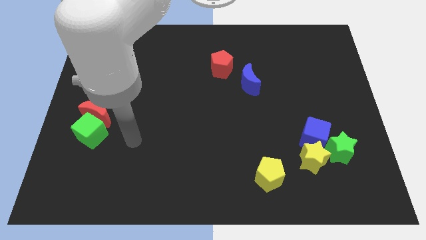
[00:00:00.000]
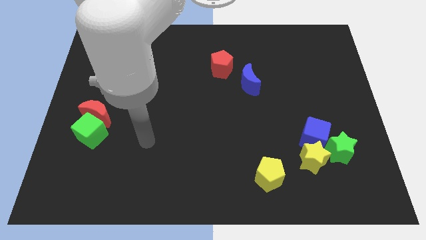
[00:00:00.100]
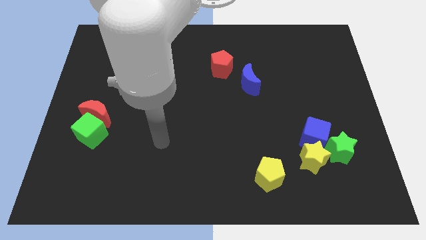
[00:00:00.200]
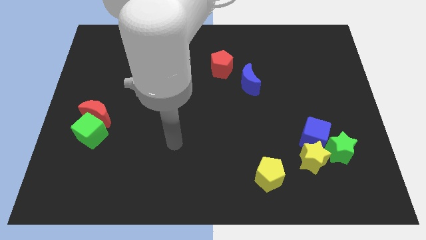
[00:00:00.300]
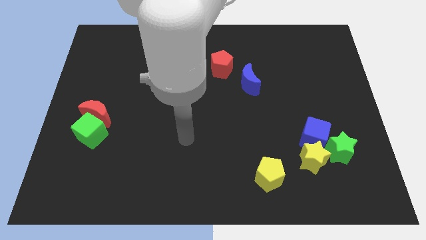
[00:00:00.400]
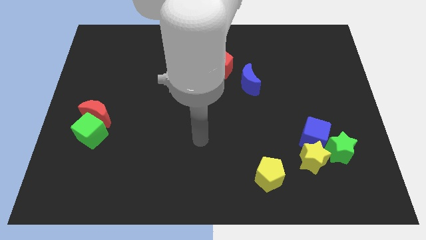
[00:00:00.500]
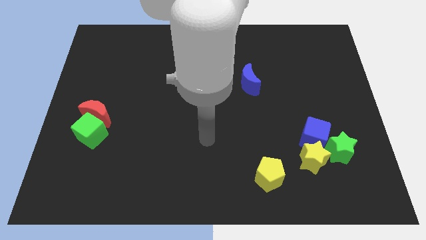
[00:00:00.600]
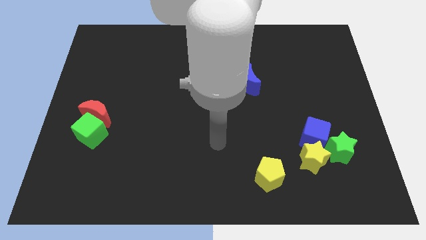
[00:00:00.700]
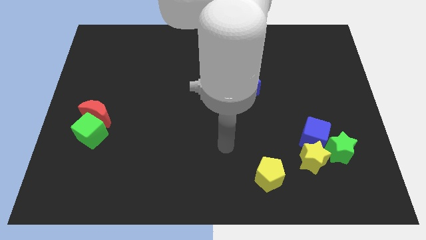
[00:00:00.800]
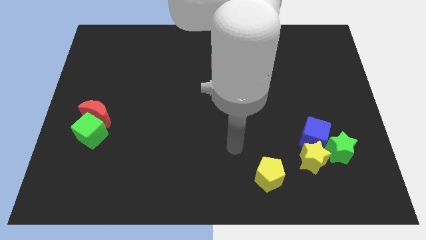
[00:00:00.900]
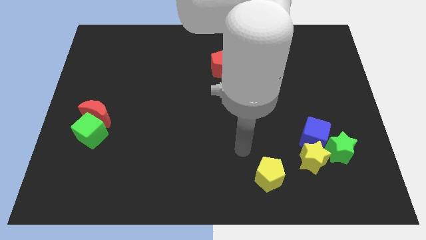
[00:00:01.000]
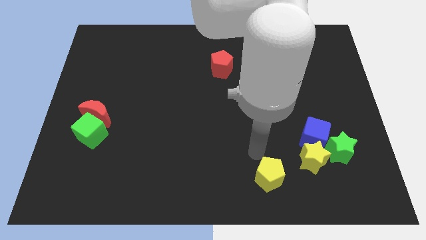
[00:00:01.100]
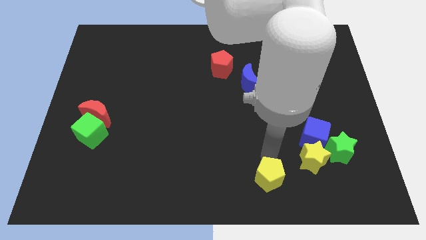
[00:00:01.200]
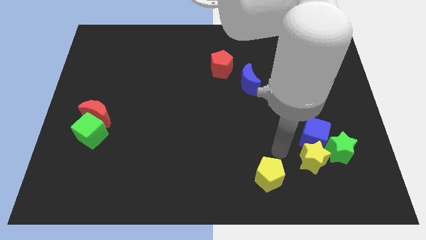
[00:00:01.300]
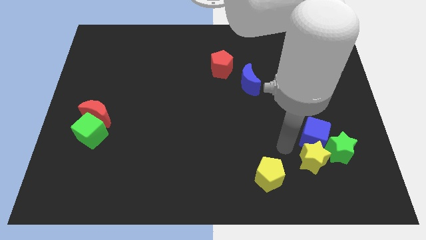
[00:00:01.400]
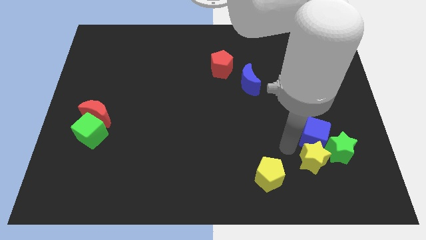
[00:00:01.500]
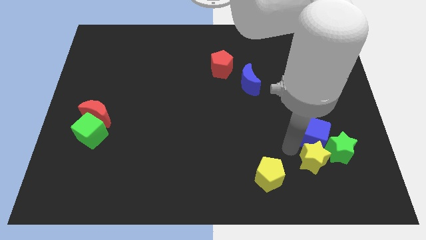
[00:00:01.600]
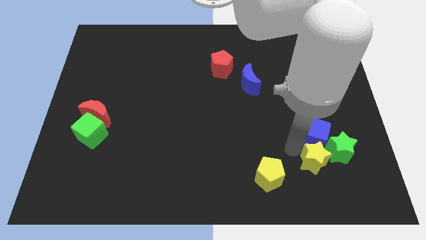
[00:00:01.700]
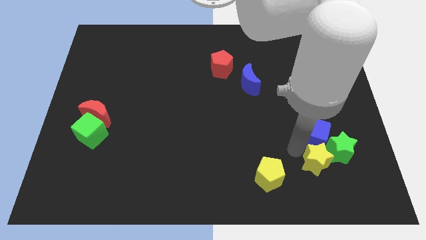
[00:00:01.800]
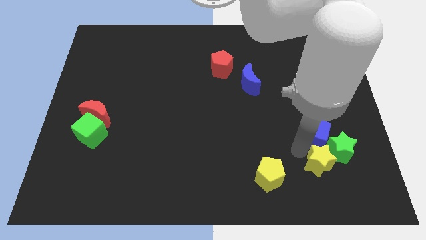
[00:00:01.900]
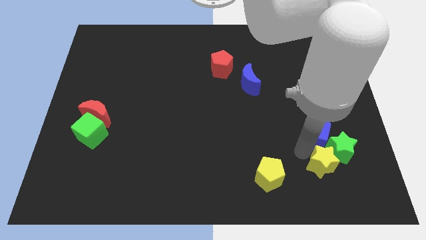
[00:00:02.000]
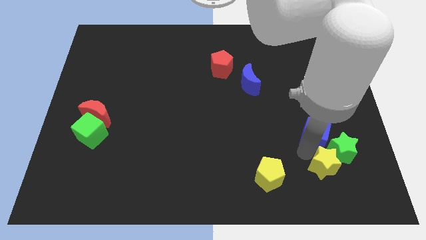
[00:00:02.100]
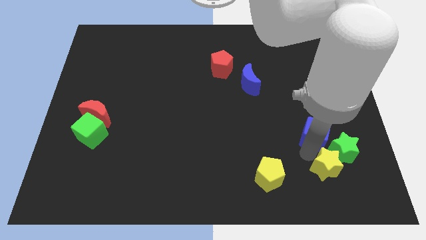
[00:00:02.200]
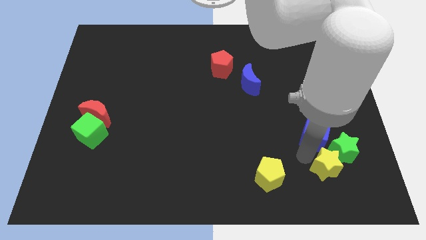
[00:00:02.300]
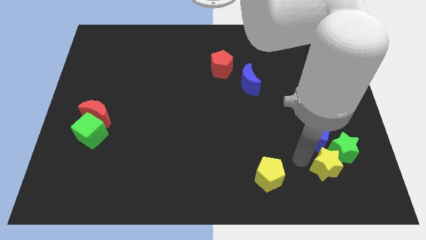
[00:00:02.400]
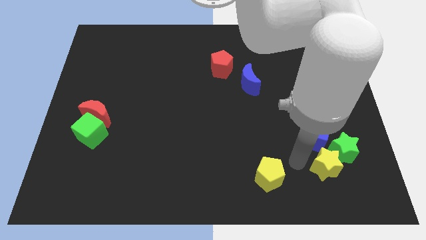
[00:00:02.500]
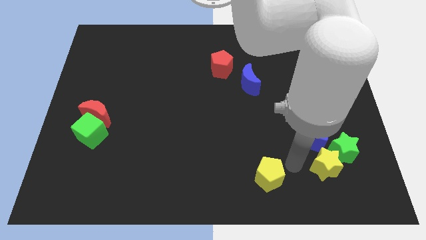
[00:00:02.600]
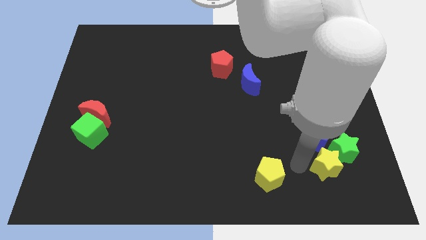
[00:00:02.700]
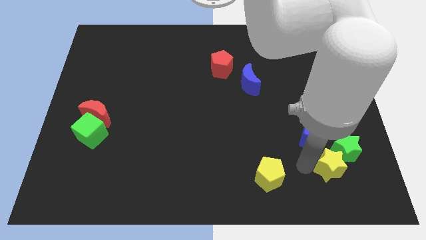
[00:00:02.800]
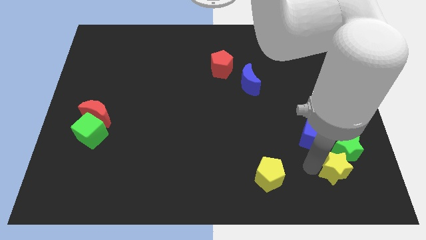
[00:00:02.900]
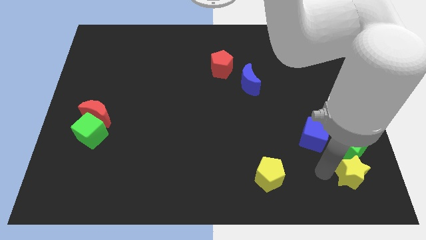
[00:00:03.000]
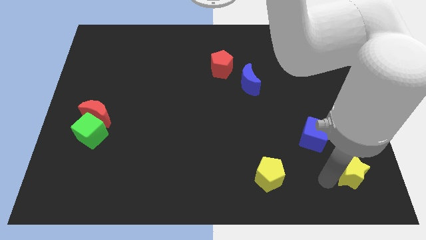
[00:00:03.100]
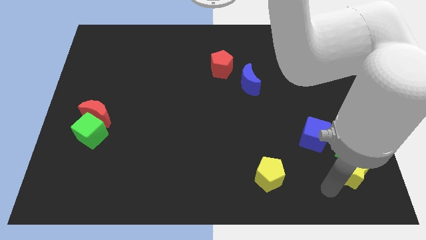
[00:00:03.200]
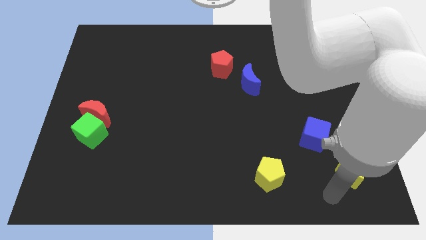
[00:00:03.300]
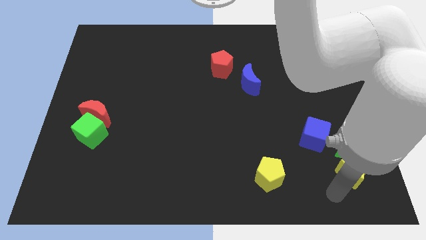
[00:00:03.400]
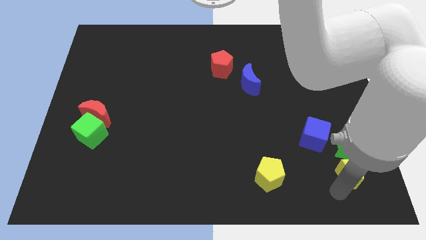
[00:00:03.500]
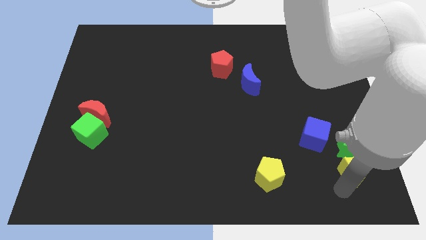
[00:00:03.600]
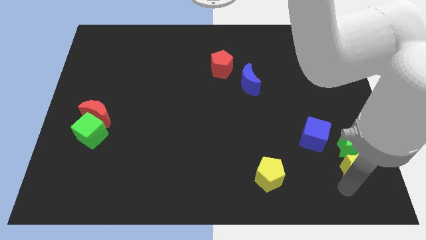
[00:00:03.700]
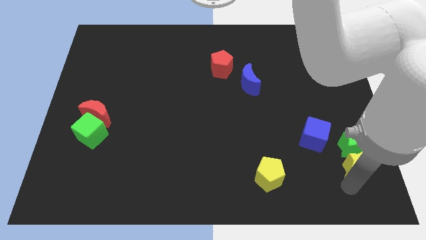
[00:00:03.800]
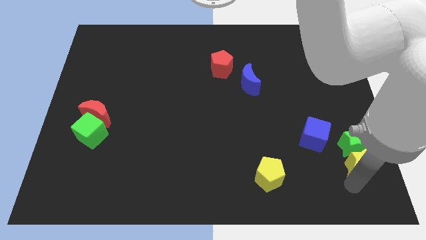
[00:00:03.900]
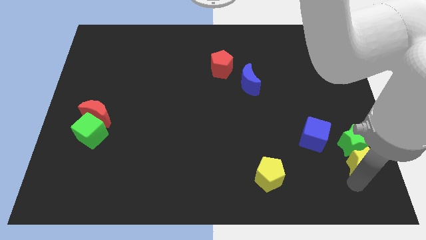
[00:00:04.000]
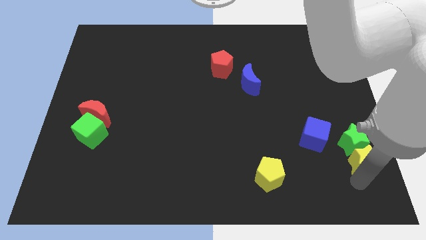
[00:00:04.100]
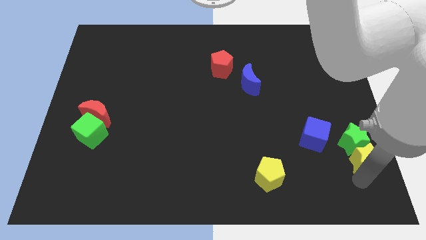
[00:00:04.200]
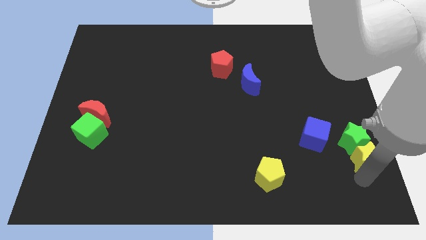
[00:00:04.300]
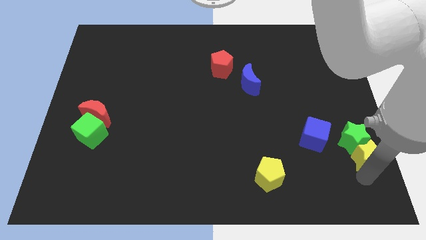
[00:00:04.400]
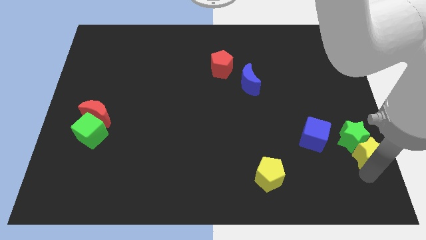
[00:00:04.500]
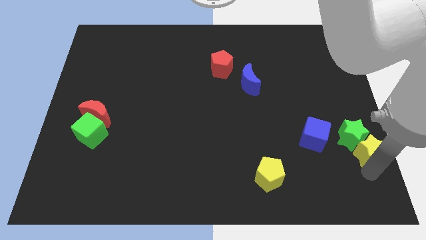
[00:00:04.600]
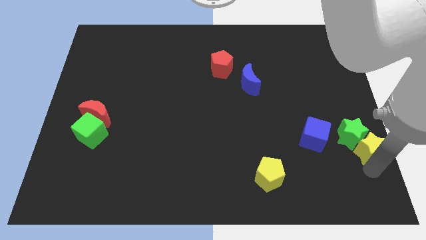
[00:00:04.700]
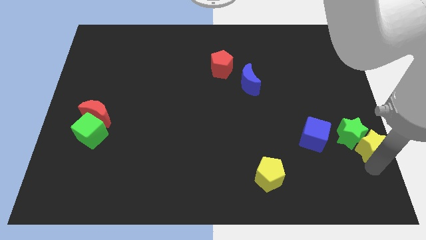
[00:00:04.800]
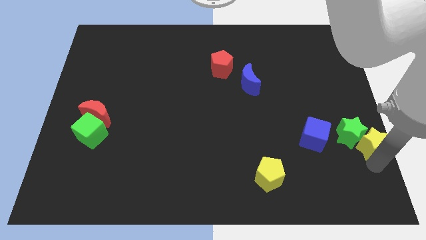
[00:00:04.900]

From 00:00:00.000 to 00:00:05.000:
push the yellow star to the right side

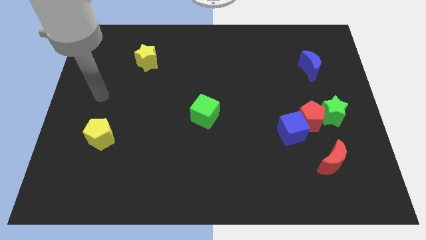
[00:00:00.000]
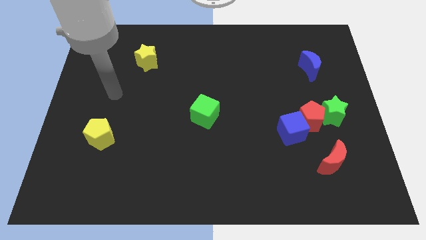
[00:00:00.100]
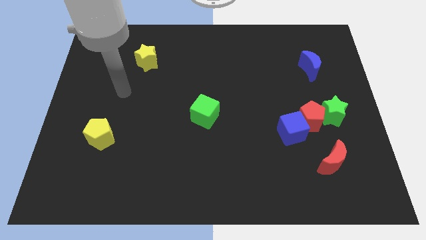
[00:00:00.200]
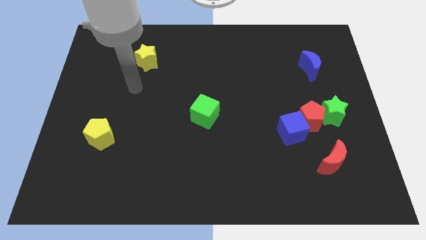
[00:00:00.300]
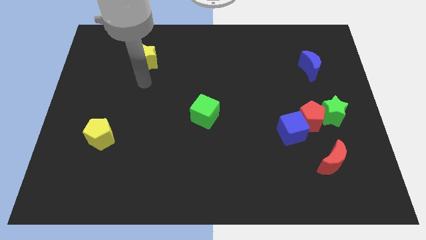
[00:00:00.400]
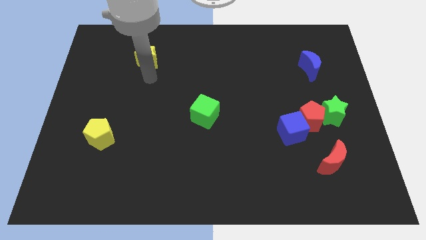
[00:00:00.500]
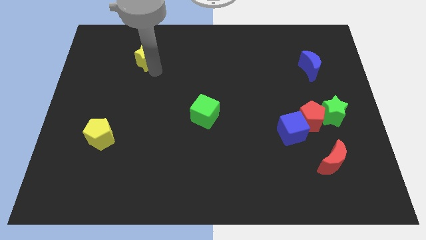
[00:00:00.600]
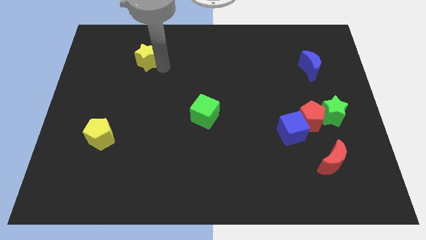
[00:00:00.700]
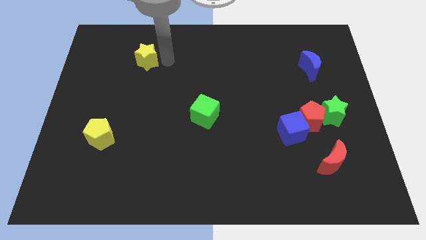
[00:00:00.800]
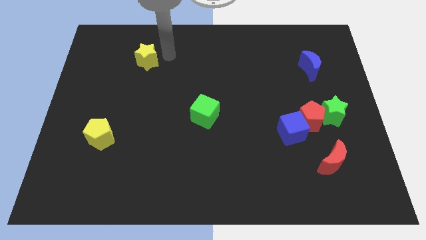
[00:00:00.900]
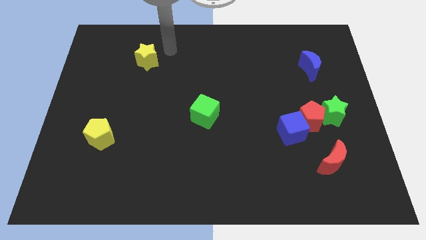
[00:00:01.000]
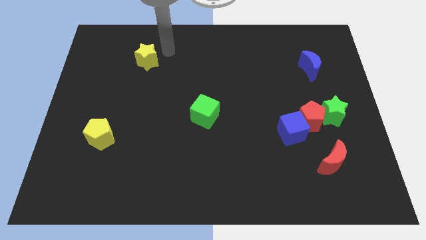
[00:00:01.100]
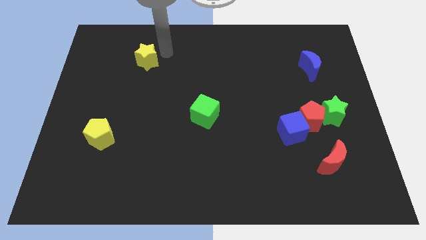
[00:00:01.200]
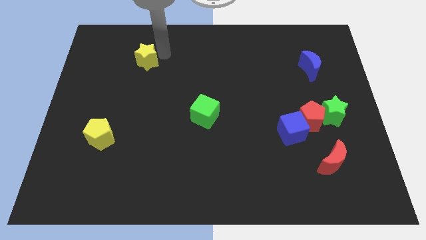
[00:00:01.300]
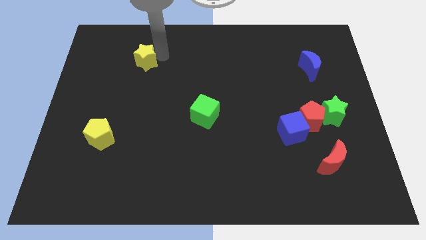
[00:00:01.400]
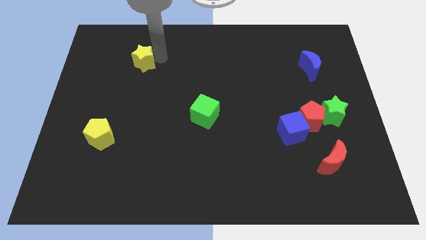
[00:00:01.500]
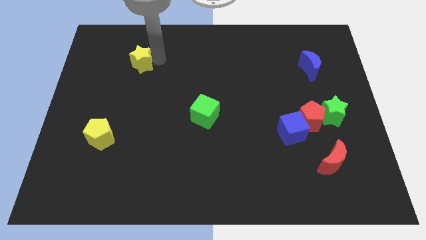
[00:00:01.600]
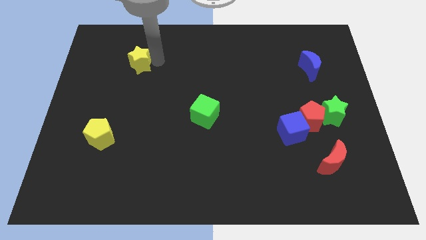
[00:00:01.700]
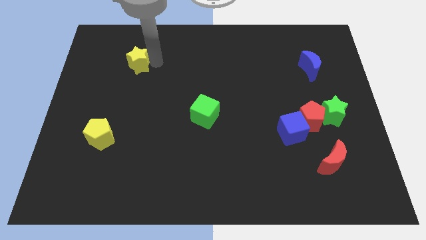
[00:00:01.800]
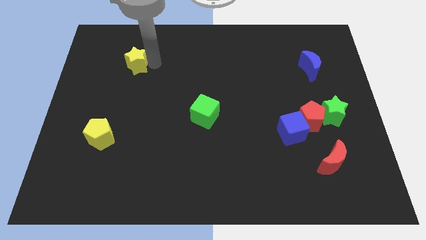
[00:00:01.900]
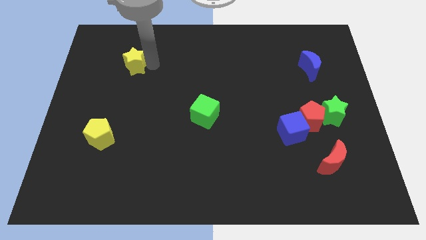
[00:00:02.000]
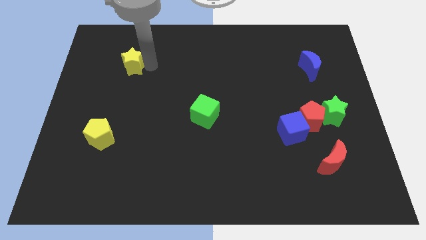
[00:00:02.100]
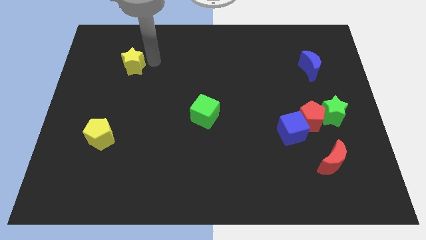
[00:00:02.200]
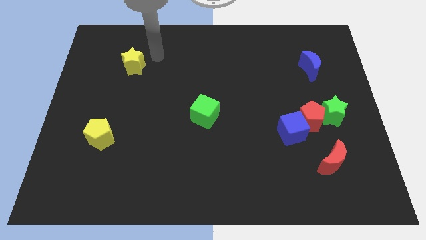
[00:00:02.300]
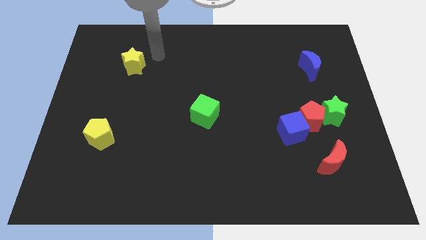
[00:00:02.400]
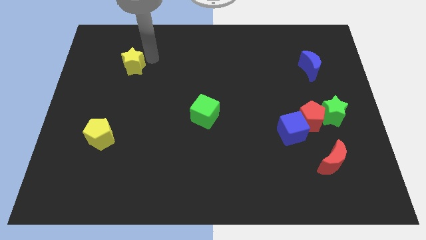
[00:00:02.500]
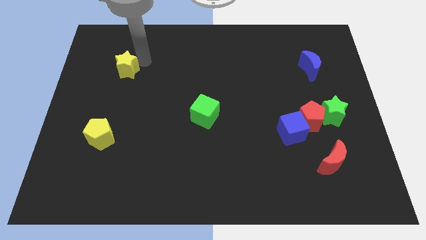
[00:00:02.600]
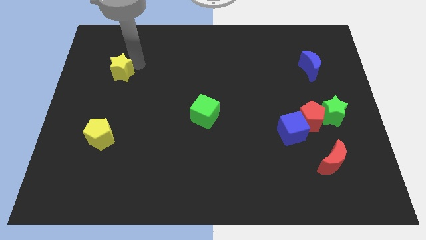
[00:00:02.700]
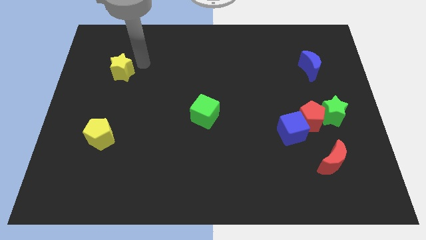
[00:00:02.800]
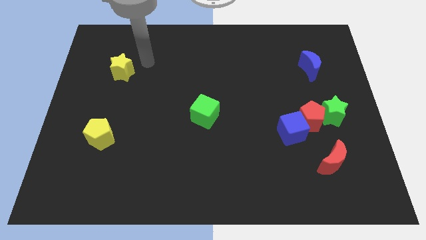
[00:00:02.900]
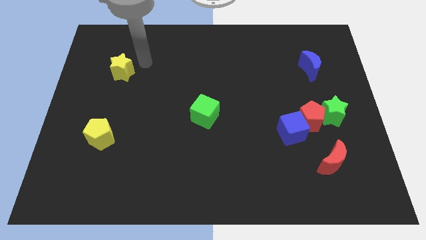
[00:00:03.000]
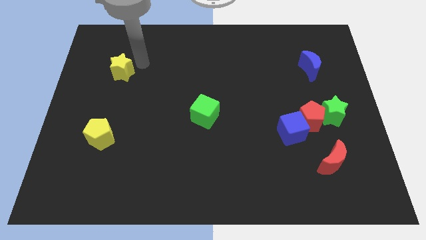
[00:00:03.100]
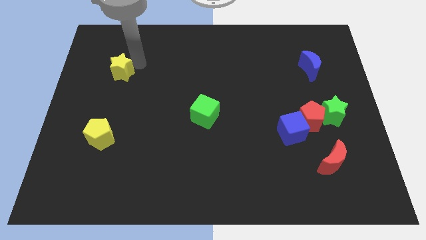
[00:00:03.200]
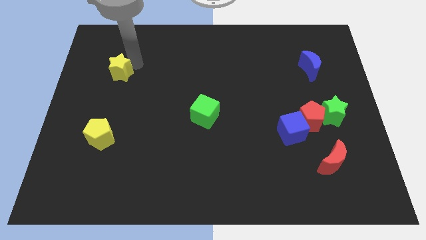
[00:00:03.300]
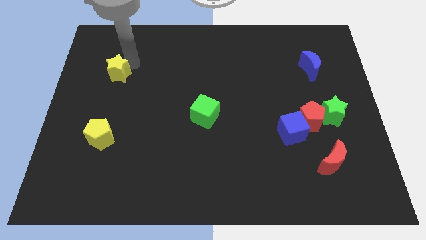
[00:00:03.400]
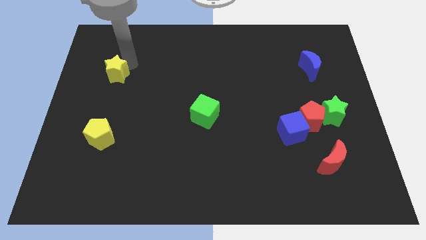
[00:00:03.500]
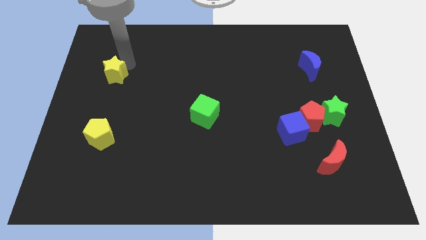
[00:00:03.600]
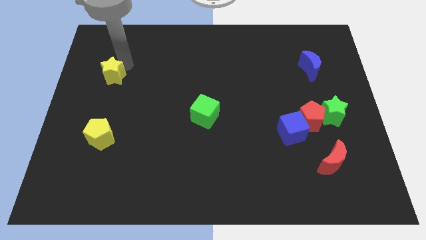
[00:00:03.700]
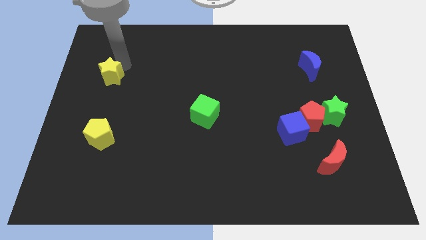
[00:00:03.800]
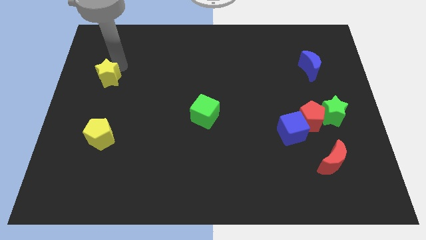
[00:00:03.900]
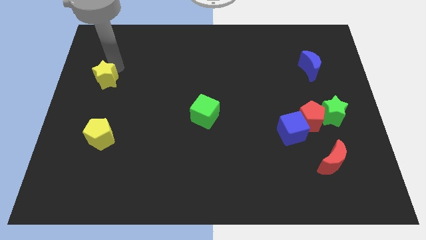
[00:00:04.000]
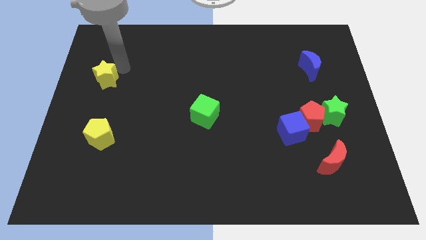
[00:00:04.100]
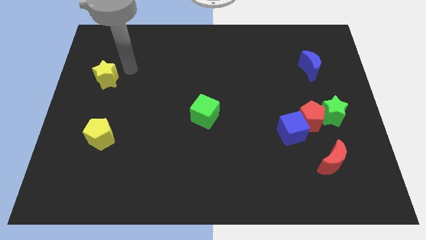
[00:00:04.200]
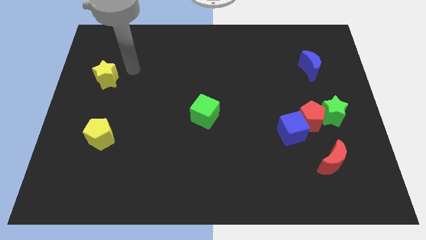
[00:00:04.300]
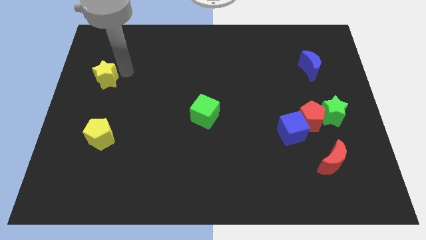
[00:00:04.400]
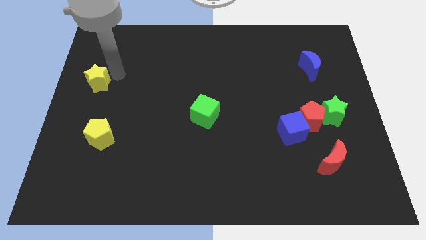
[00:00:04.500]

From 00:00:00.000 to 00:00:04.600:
move the yellow star to the center left
